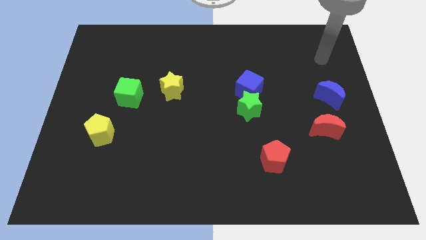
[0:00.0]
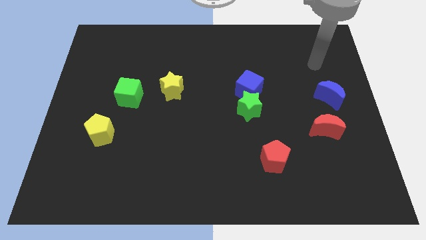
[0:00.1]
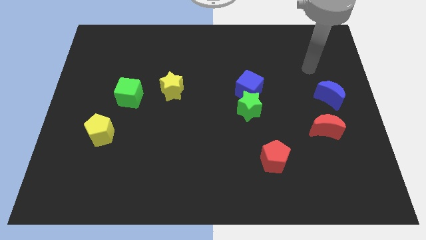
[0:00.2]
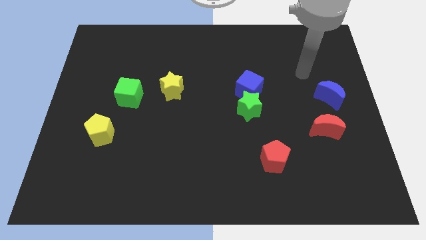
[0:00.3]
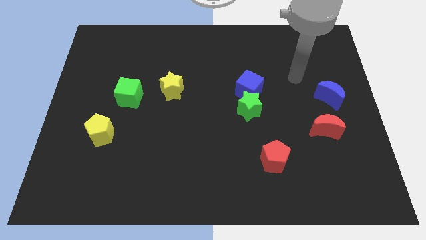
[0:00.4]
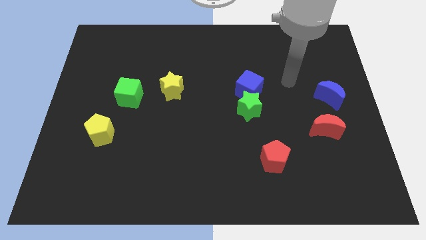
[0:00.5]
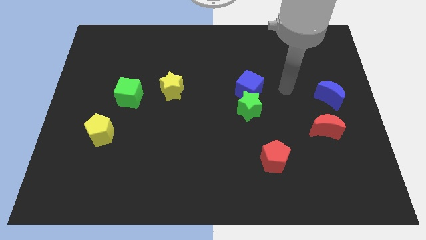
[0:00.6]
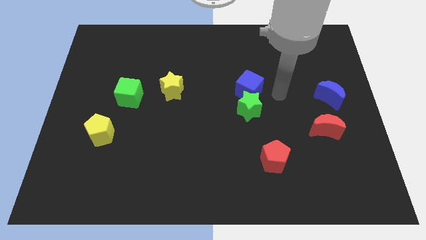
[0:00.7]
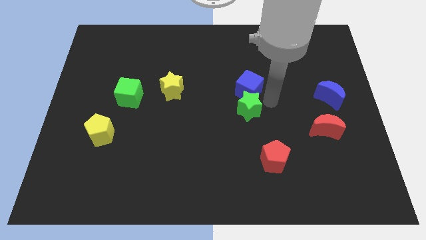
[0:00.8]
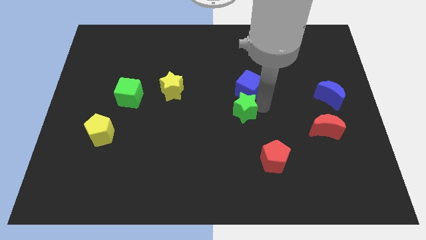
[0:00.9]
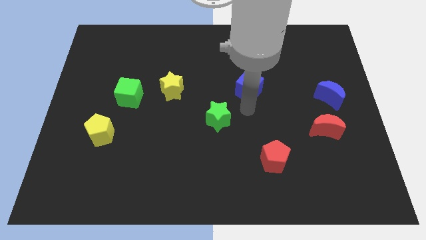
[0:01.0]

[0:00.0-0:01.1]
pull the blue cube apart from the green star

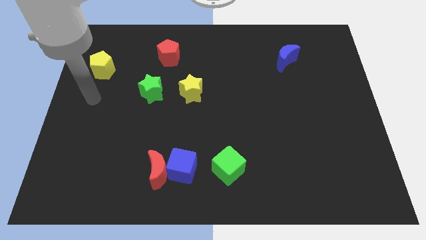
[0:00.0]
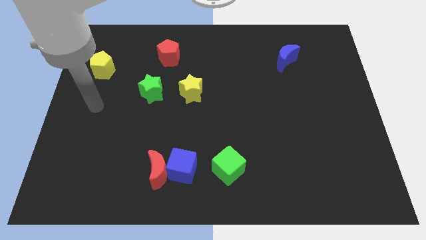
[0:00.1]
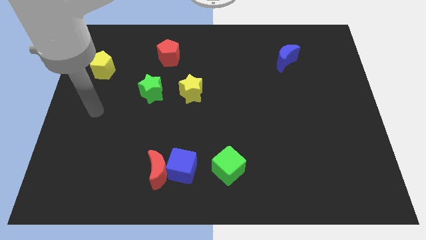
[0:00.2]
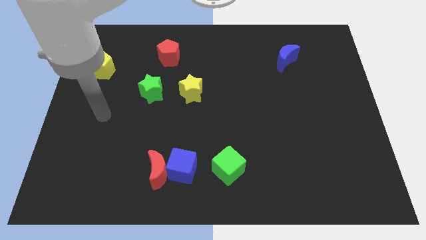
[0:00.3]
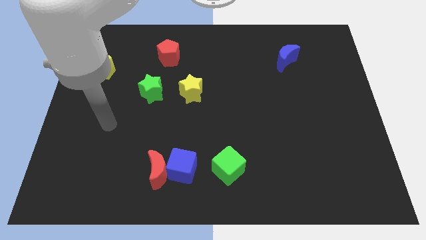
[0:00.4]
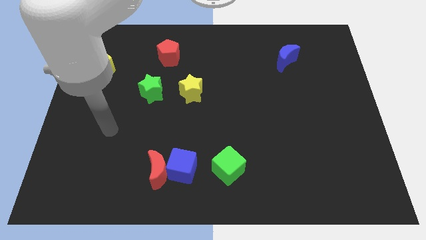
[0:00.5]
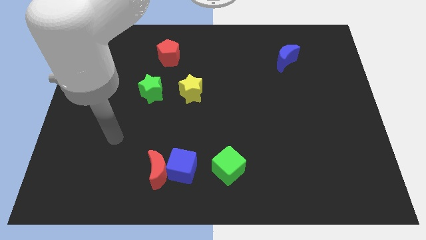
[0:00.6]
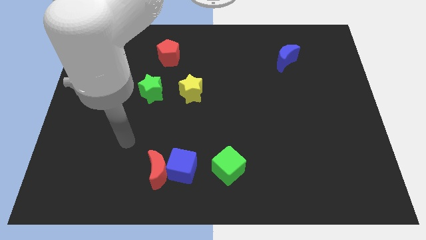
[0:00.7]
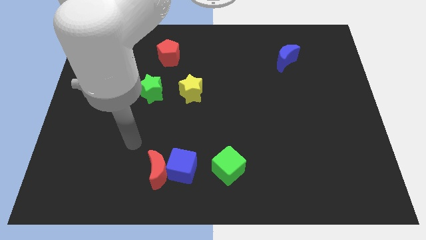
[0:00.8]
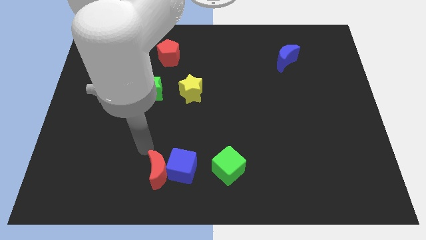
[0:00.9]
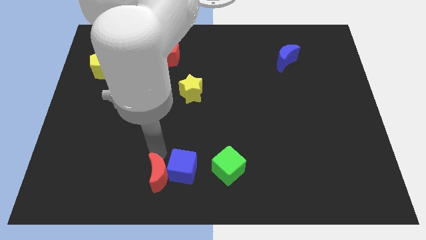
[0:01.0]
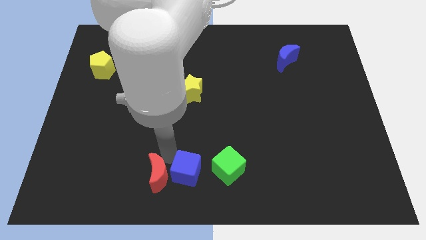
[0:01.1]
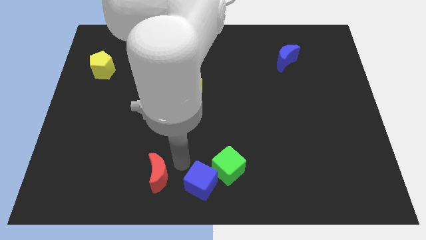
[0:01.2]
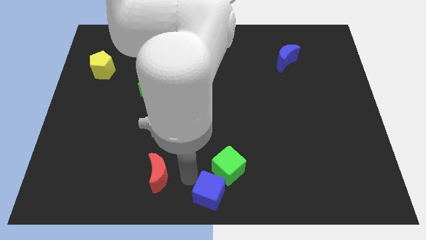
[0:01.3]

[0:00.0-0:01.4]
pull the red moon apart from the blue cube

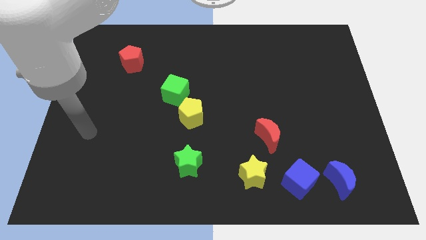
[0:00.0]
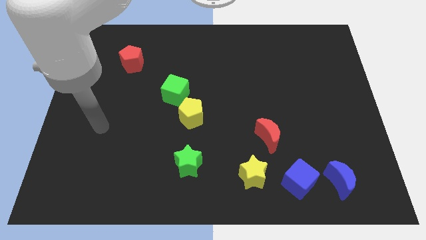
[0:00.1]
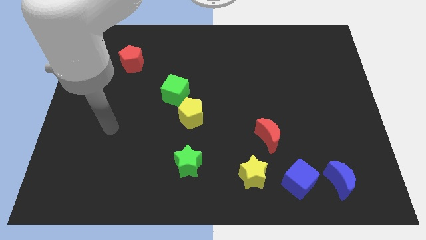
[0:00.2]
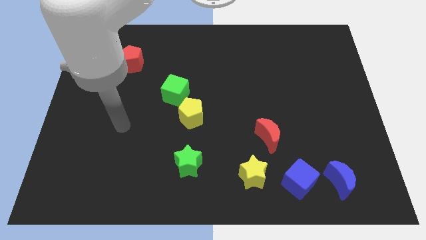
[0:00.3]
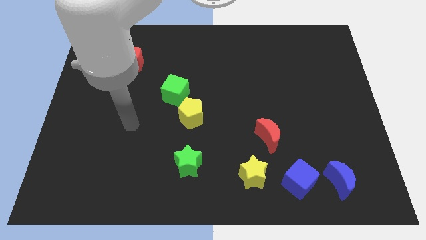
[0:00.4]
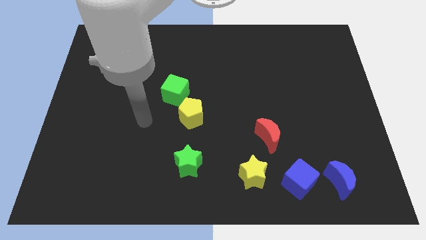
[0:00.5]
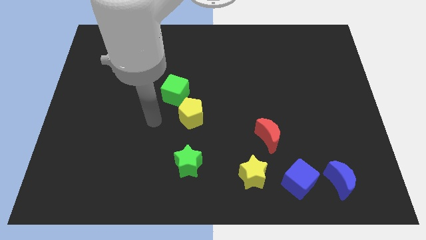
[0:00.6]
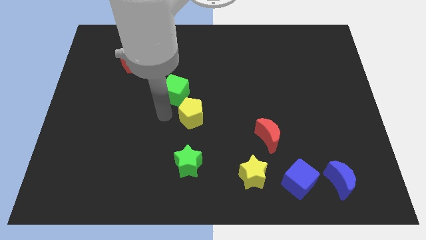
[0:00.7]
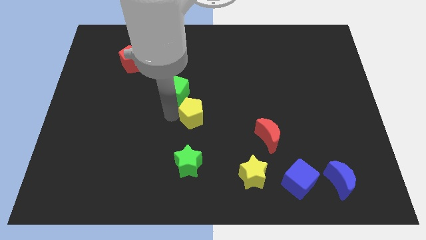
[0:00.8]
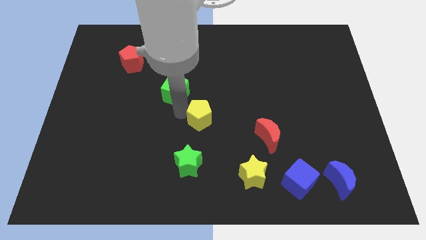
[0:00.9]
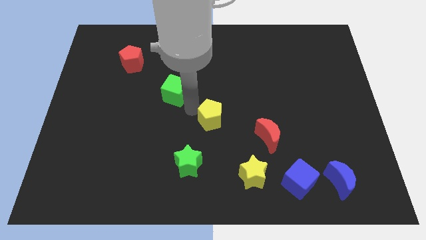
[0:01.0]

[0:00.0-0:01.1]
move the green cube away from the yellow pentagon

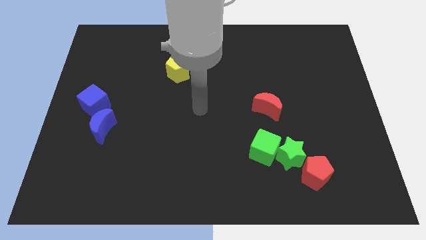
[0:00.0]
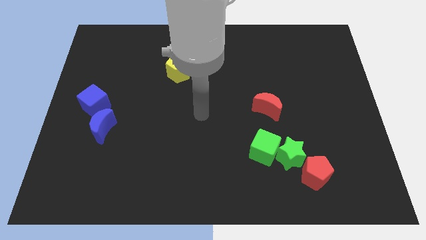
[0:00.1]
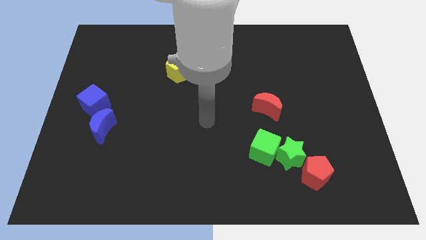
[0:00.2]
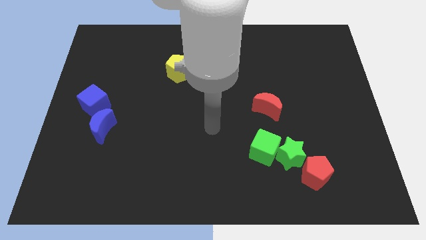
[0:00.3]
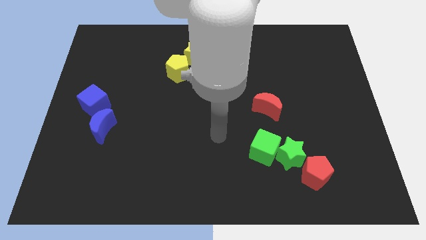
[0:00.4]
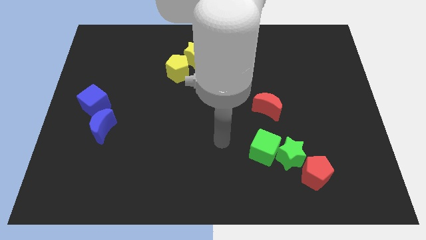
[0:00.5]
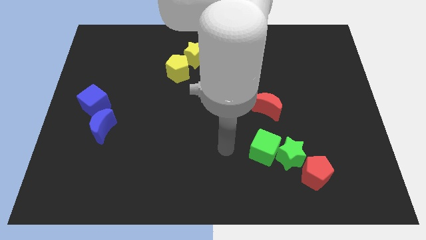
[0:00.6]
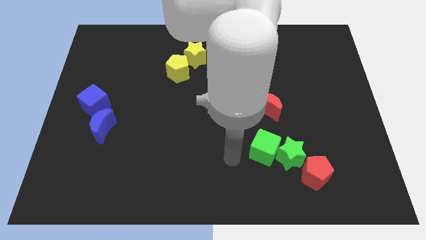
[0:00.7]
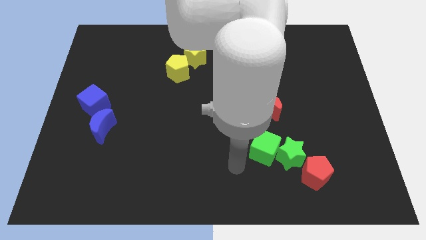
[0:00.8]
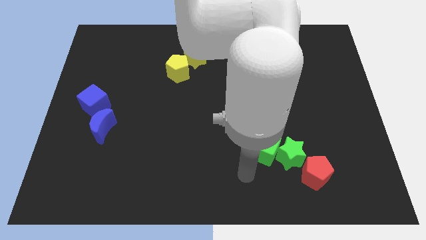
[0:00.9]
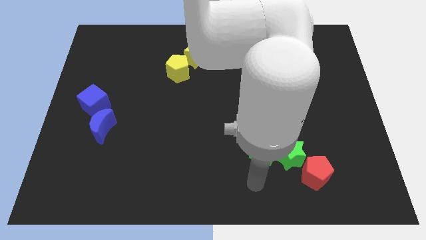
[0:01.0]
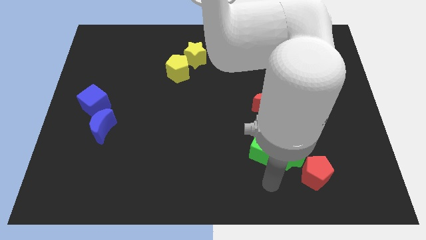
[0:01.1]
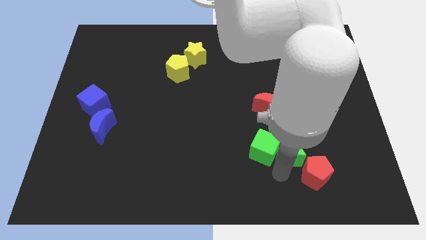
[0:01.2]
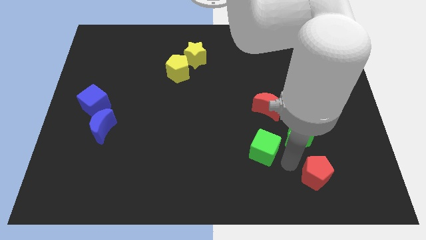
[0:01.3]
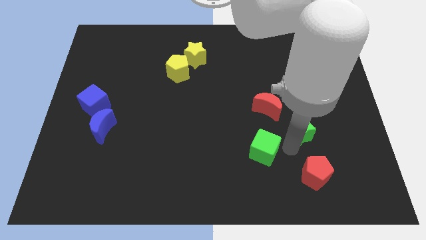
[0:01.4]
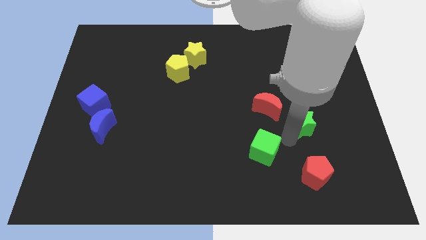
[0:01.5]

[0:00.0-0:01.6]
move the green cube away from the green star

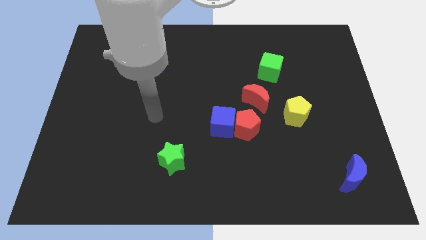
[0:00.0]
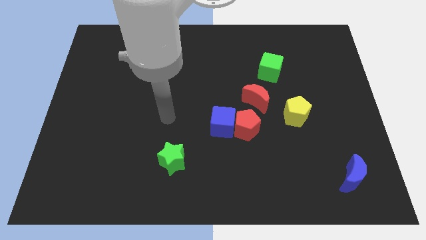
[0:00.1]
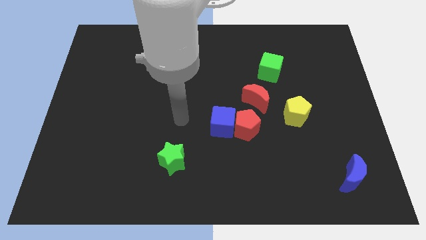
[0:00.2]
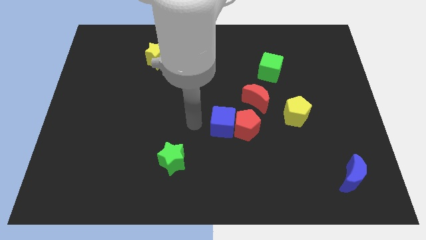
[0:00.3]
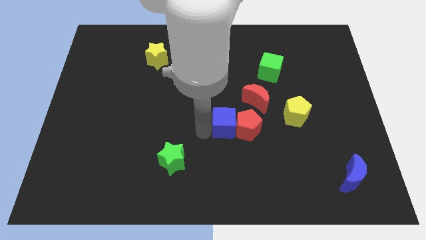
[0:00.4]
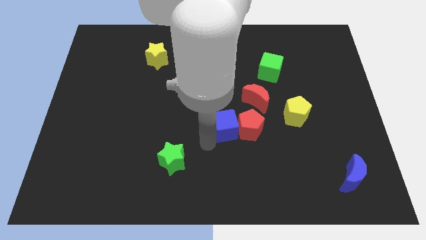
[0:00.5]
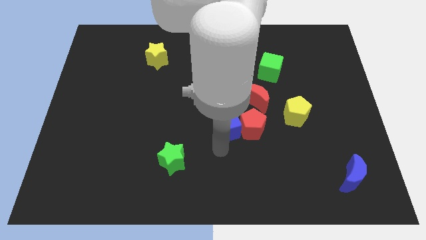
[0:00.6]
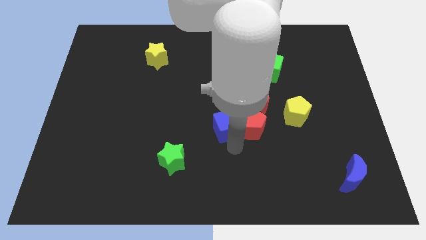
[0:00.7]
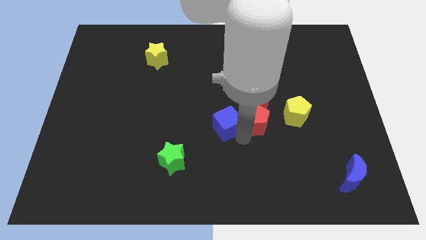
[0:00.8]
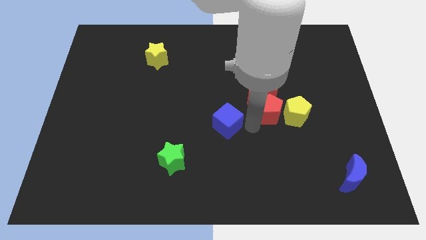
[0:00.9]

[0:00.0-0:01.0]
separate the blue cube from the red pentagon

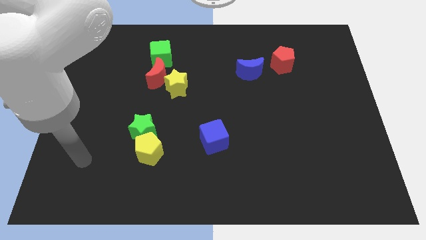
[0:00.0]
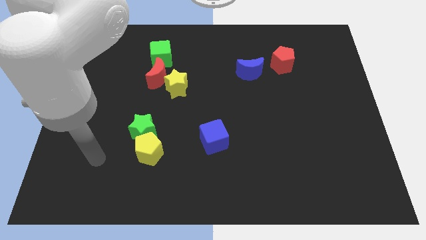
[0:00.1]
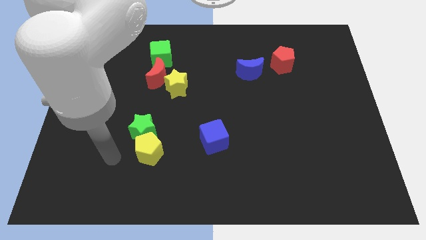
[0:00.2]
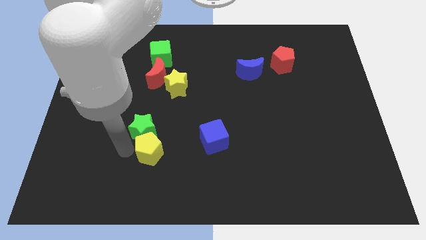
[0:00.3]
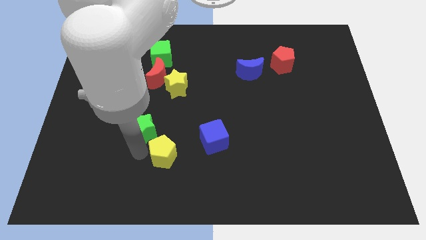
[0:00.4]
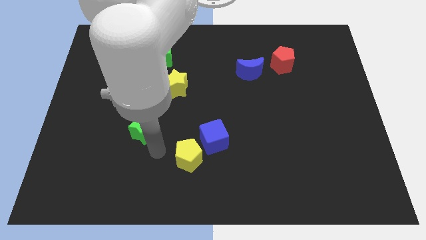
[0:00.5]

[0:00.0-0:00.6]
separate the green star from the yellow pentagon

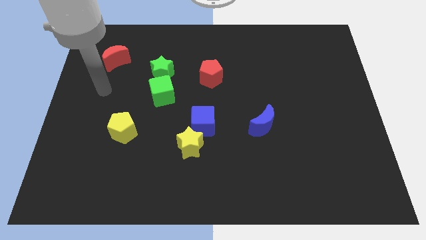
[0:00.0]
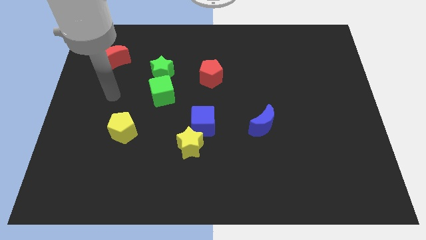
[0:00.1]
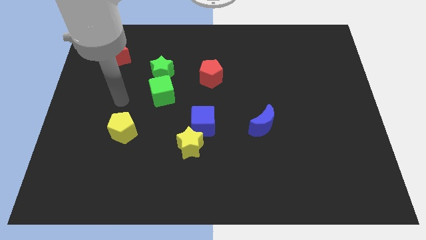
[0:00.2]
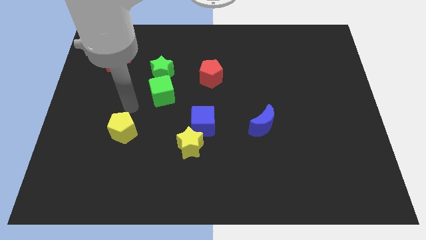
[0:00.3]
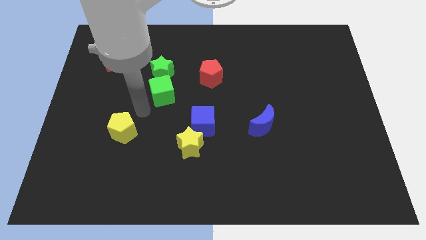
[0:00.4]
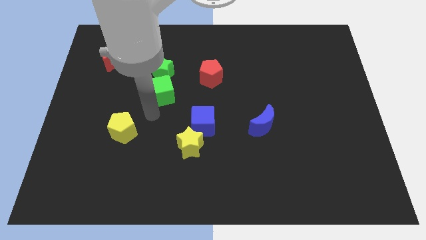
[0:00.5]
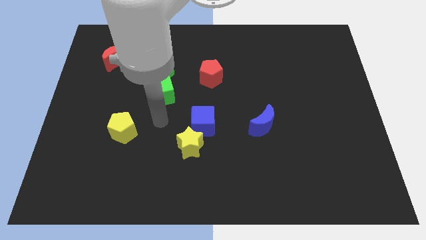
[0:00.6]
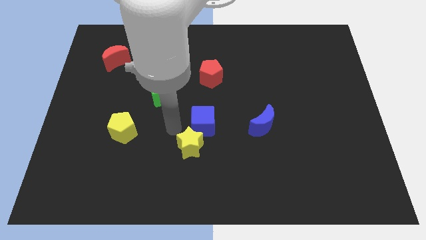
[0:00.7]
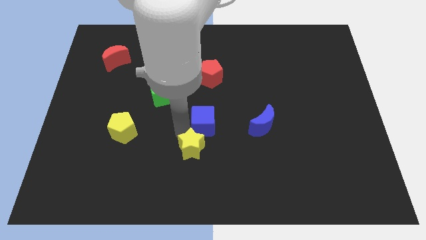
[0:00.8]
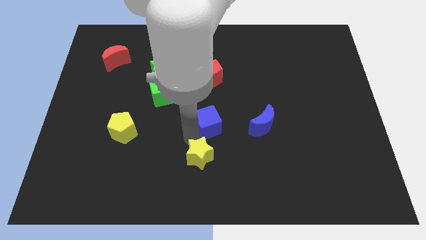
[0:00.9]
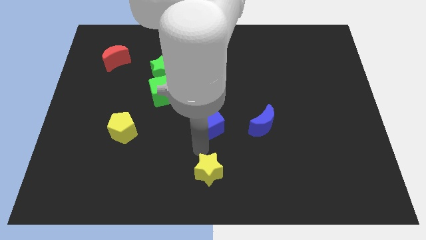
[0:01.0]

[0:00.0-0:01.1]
pull the blue cube apart from the yellow star

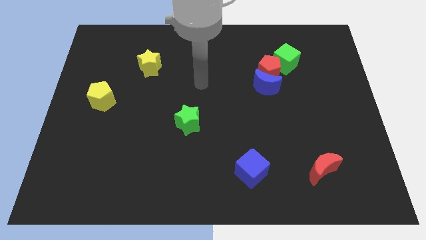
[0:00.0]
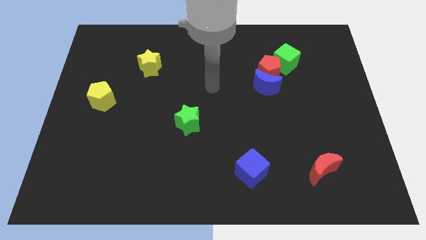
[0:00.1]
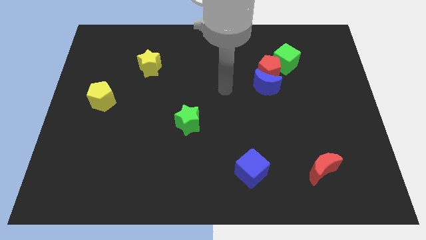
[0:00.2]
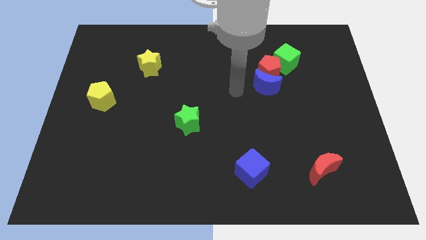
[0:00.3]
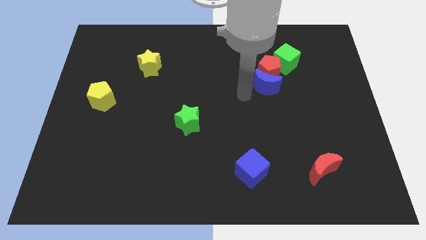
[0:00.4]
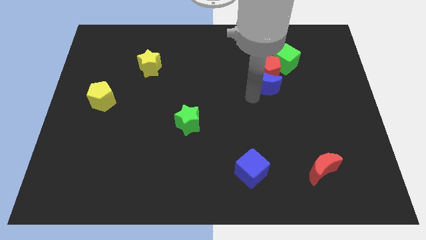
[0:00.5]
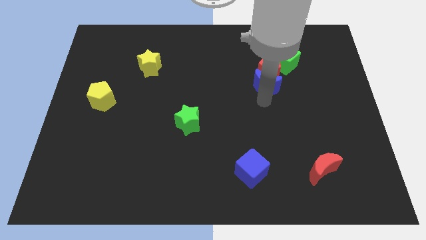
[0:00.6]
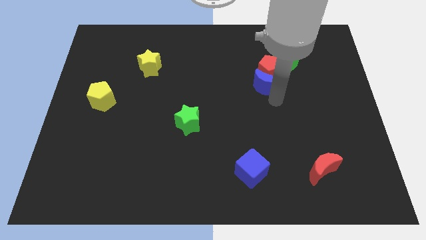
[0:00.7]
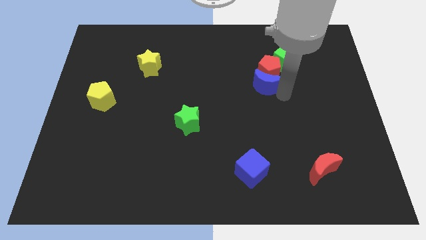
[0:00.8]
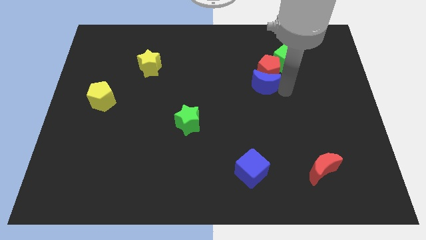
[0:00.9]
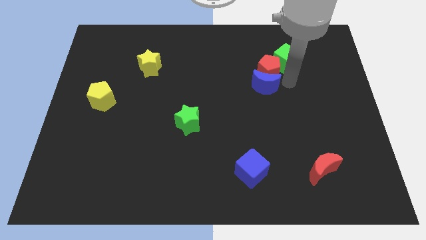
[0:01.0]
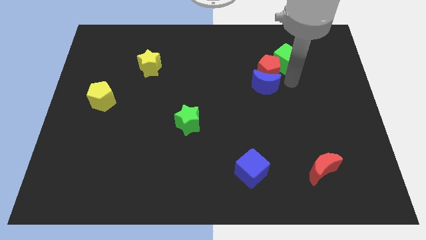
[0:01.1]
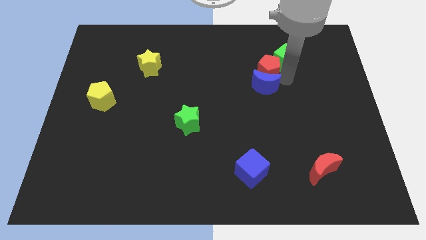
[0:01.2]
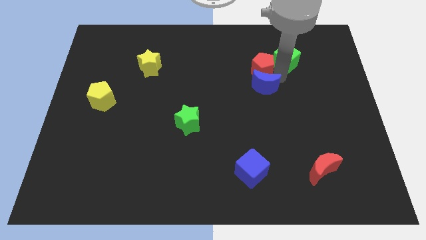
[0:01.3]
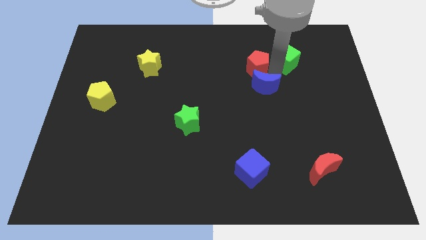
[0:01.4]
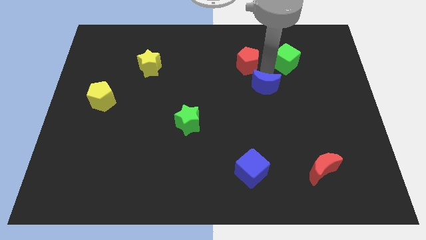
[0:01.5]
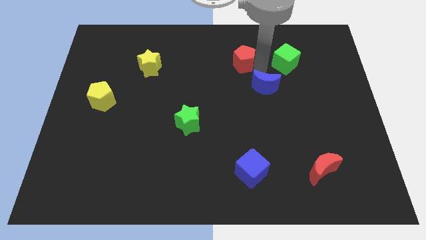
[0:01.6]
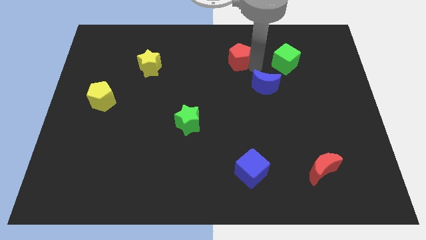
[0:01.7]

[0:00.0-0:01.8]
separate the red pentagon from the blue moon and green cube
